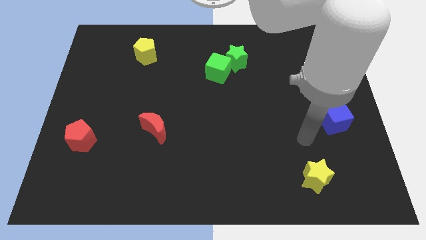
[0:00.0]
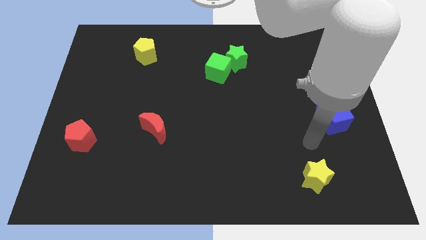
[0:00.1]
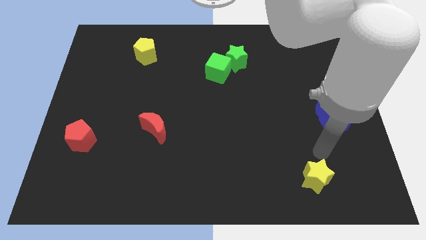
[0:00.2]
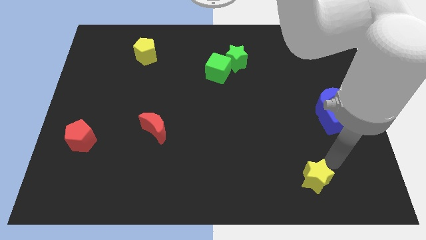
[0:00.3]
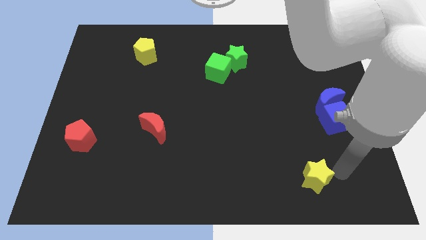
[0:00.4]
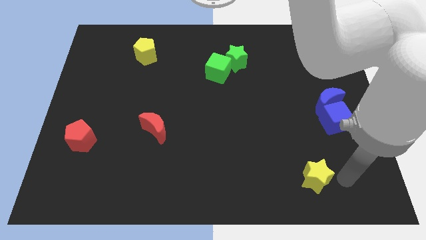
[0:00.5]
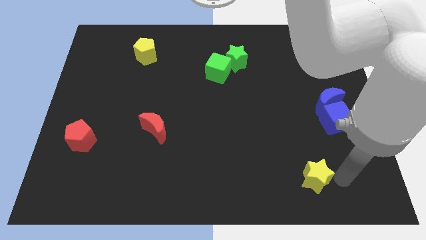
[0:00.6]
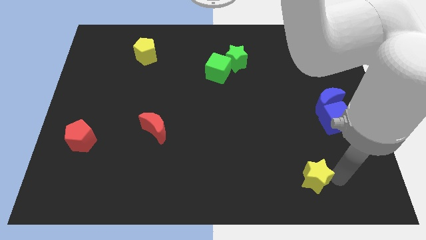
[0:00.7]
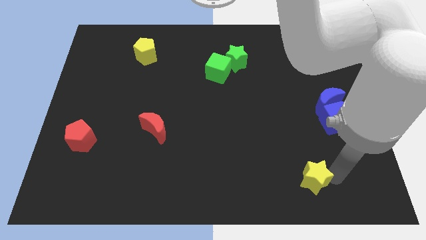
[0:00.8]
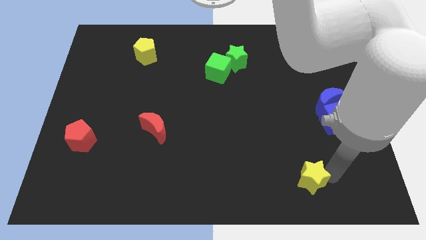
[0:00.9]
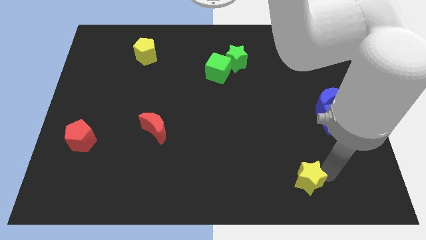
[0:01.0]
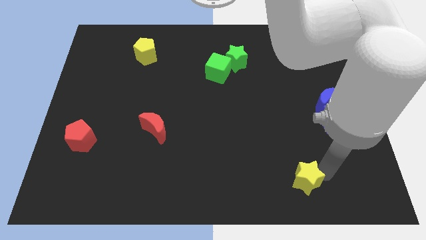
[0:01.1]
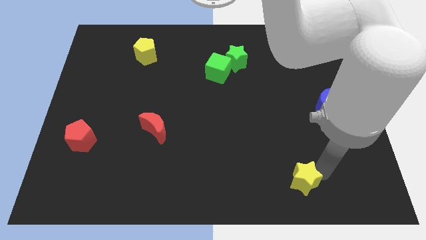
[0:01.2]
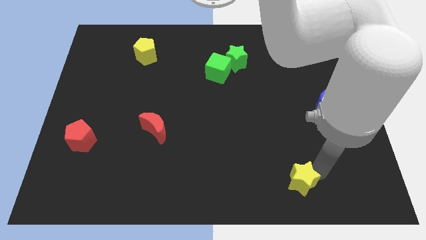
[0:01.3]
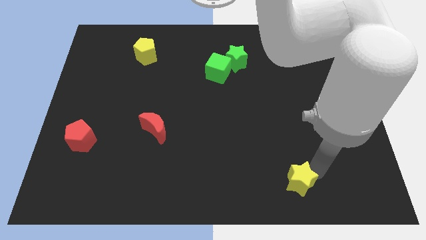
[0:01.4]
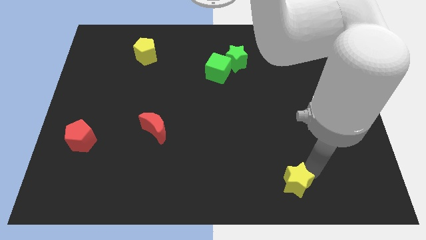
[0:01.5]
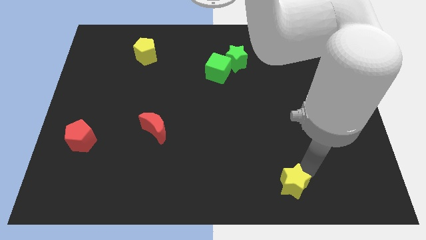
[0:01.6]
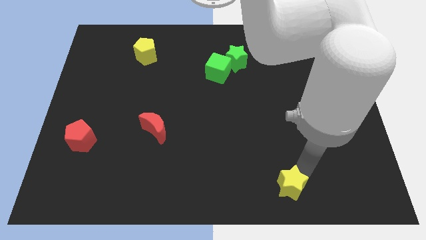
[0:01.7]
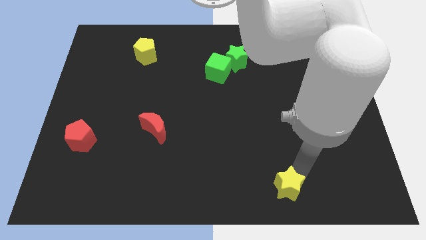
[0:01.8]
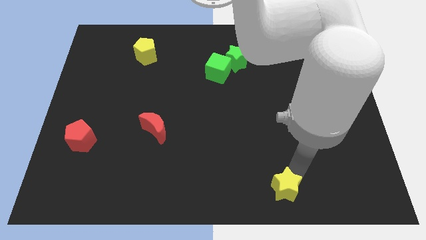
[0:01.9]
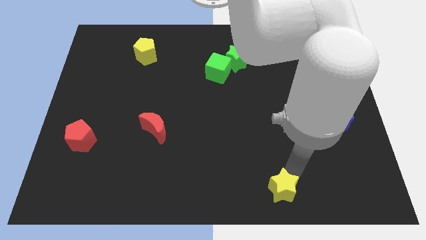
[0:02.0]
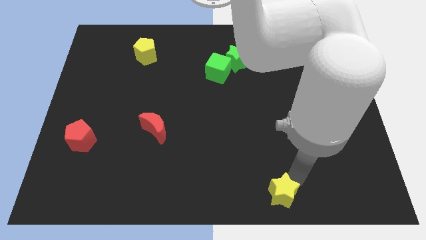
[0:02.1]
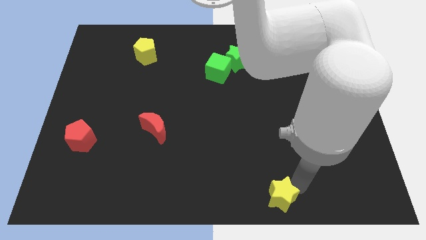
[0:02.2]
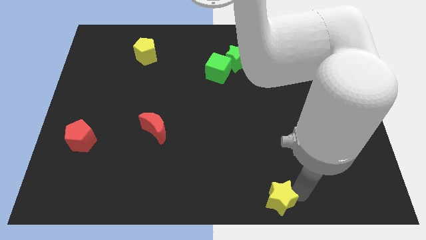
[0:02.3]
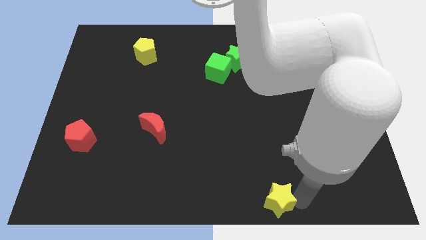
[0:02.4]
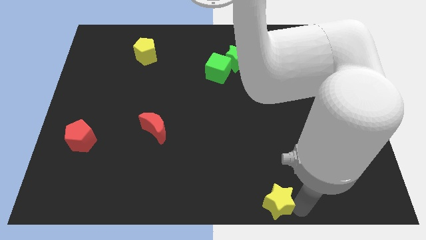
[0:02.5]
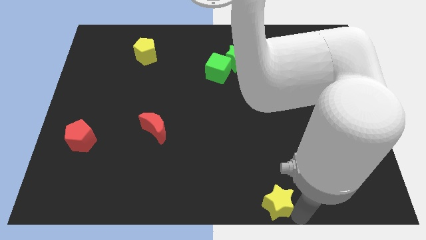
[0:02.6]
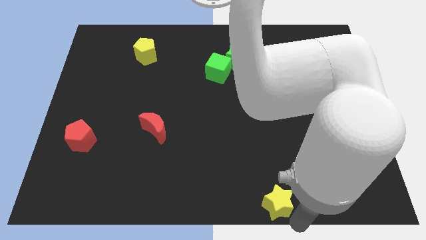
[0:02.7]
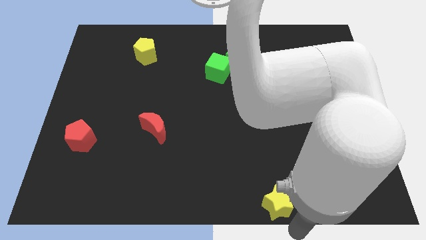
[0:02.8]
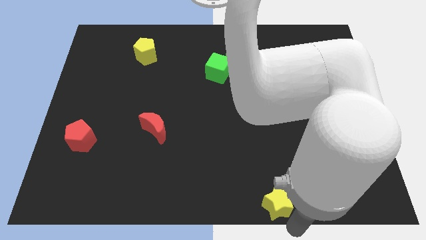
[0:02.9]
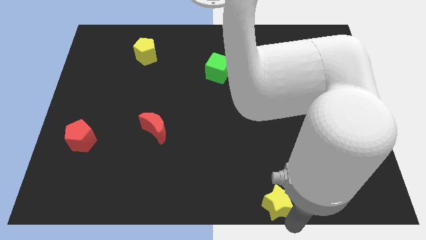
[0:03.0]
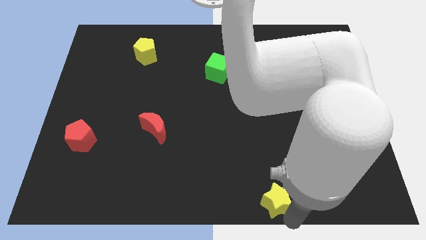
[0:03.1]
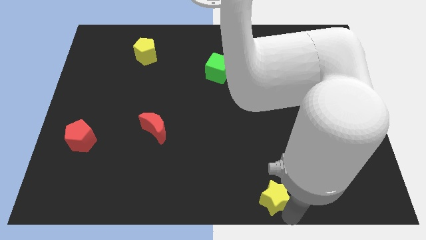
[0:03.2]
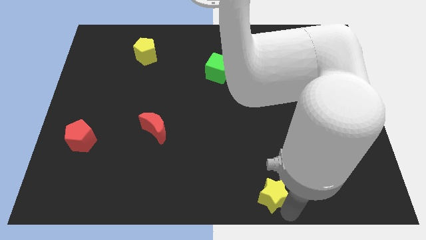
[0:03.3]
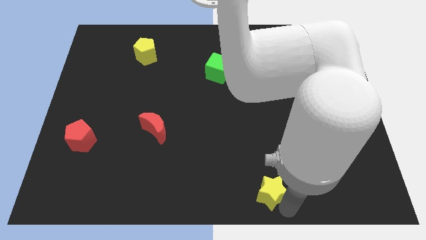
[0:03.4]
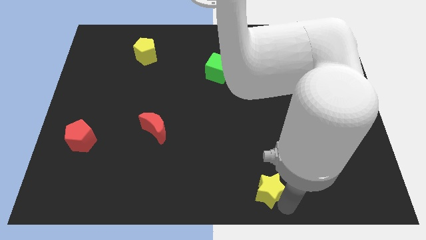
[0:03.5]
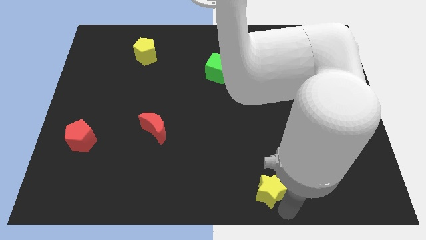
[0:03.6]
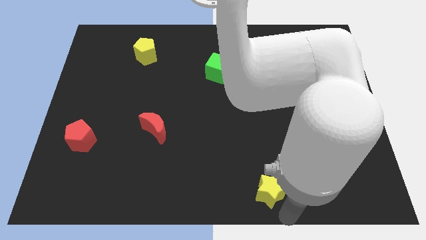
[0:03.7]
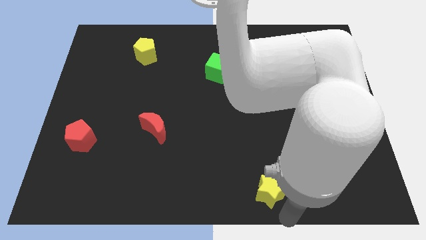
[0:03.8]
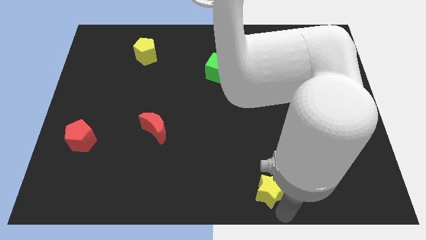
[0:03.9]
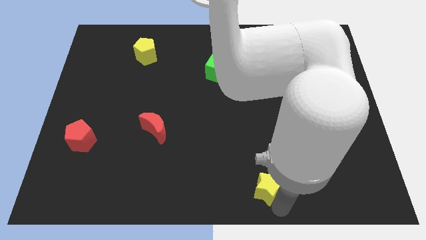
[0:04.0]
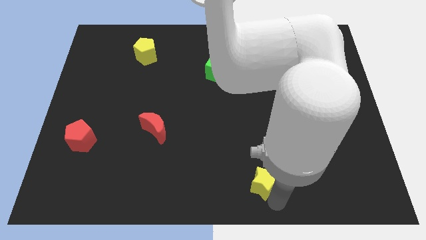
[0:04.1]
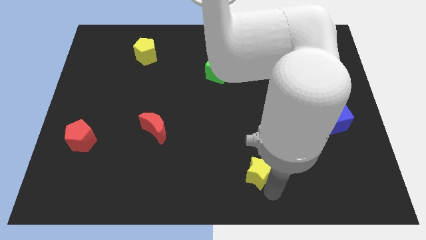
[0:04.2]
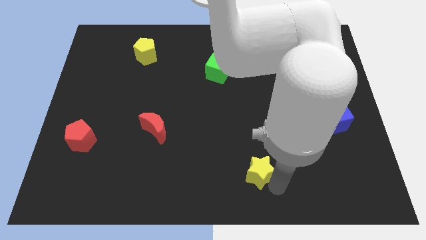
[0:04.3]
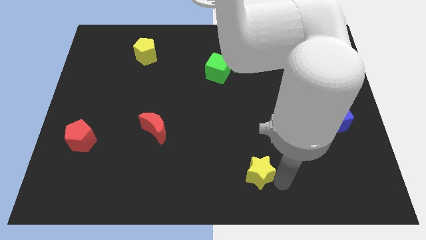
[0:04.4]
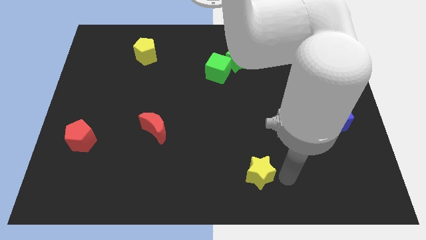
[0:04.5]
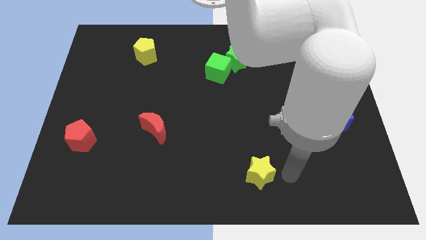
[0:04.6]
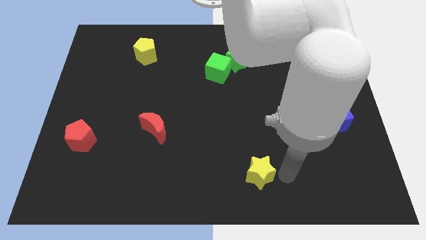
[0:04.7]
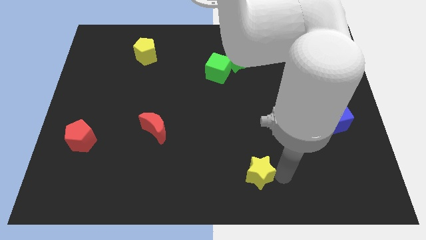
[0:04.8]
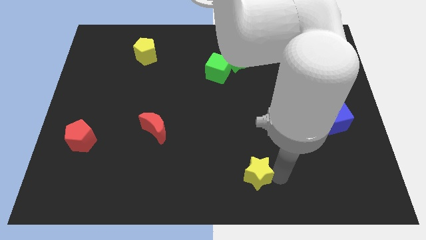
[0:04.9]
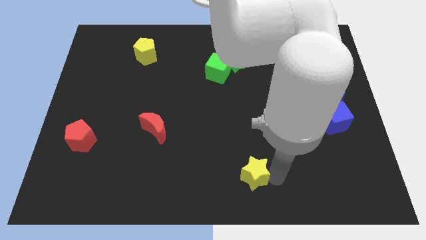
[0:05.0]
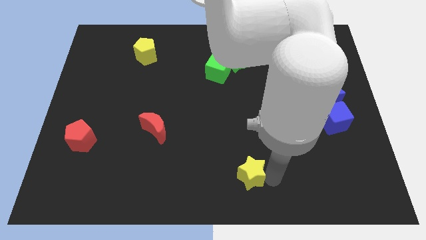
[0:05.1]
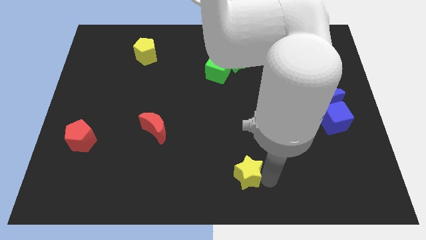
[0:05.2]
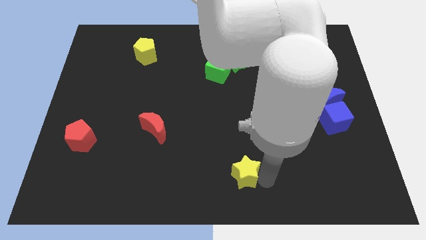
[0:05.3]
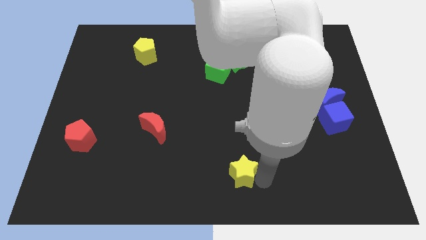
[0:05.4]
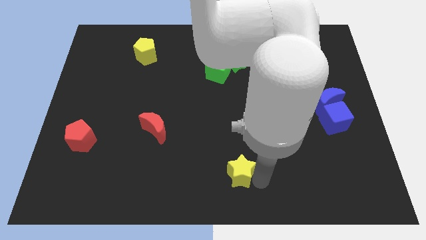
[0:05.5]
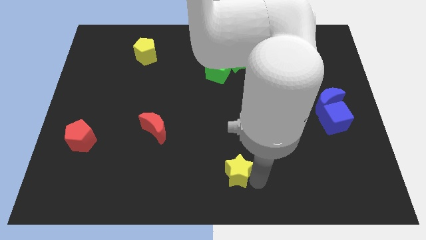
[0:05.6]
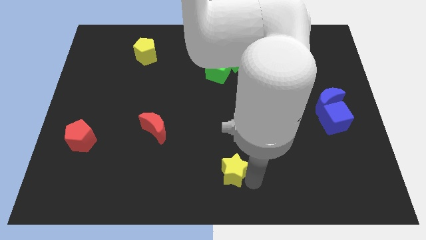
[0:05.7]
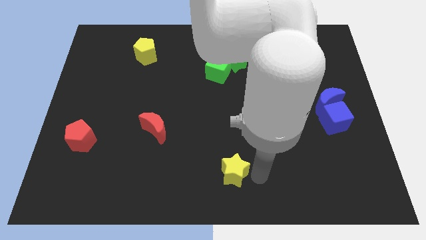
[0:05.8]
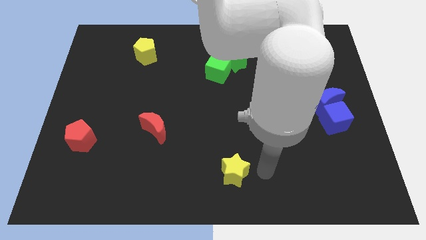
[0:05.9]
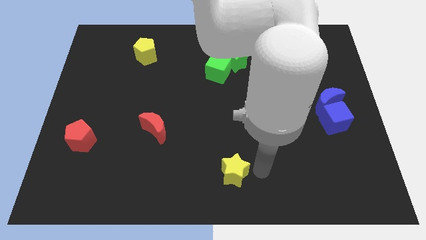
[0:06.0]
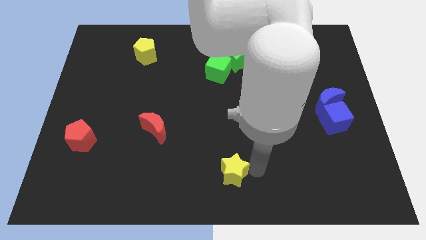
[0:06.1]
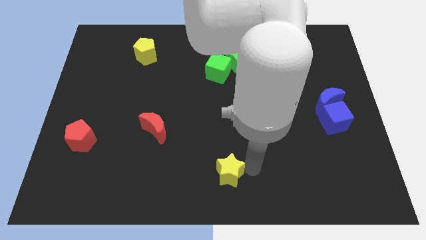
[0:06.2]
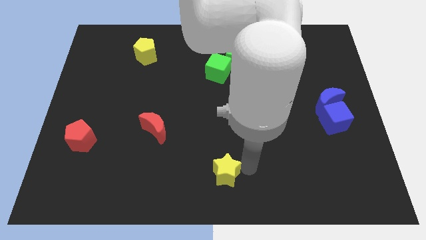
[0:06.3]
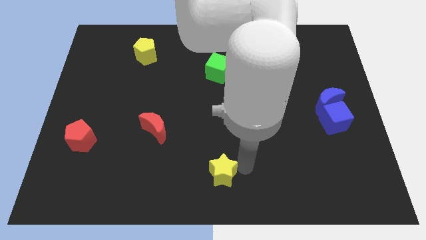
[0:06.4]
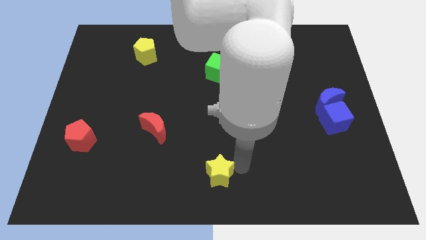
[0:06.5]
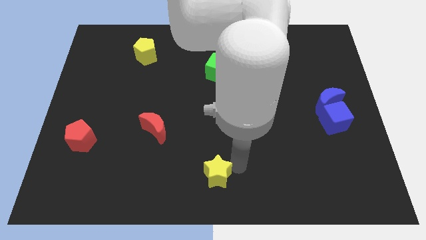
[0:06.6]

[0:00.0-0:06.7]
move the yellow star left

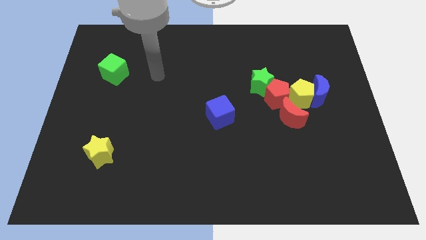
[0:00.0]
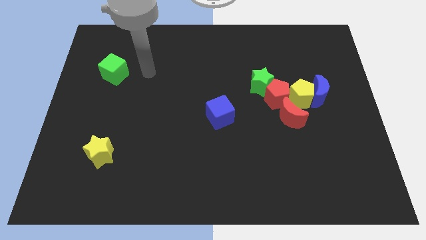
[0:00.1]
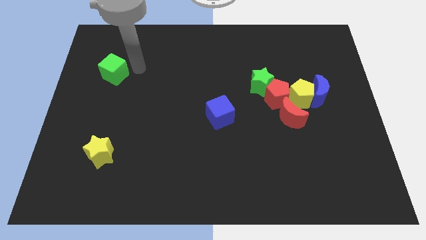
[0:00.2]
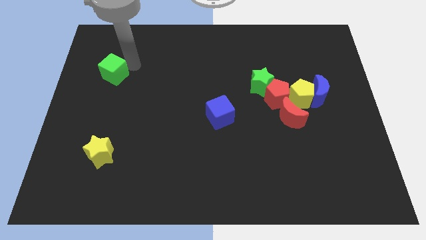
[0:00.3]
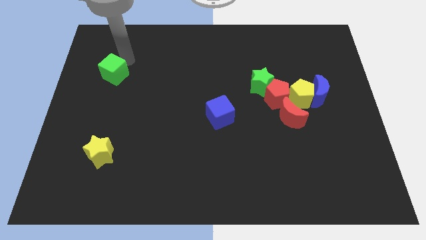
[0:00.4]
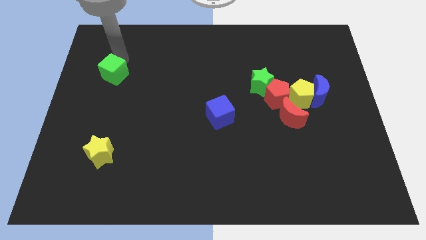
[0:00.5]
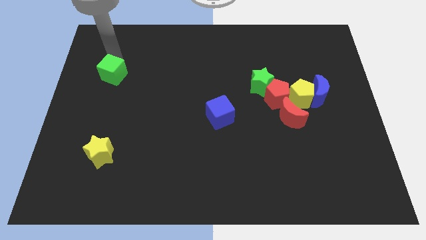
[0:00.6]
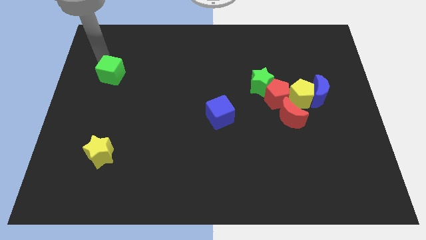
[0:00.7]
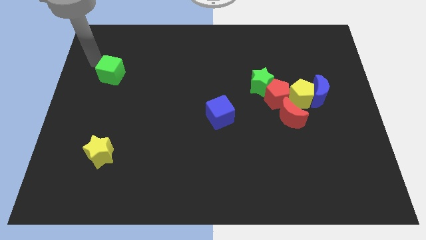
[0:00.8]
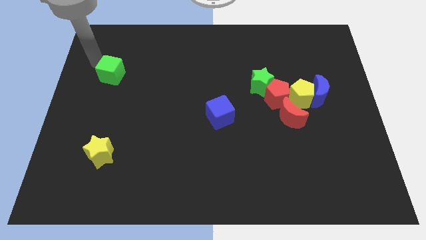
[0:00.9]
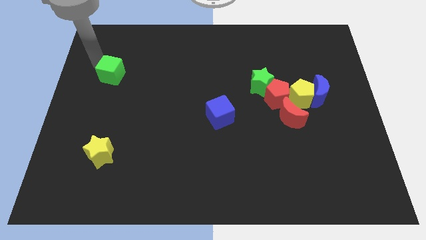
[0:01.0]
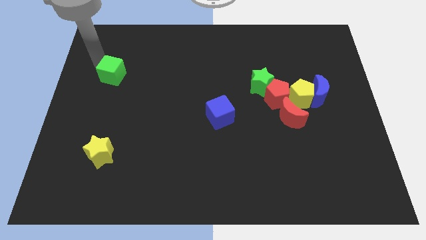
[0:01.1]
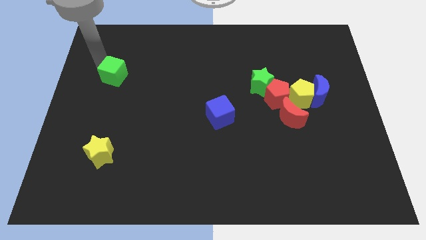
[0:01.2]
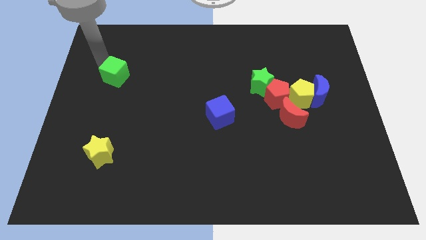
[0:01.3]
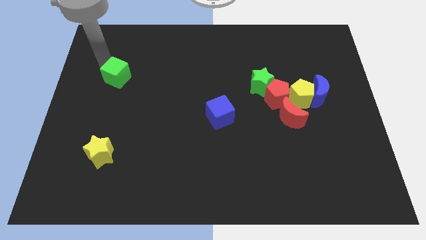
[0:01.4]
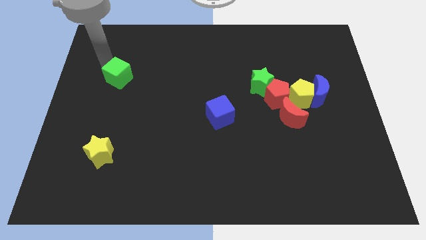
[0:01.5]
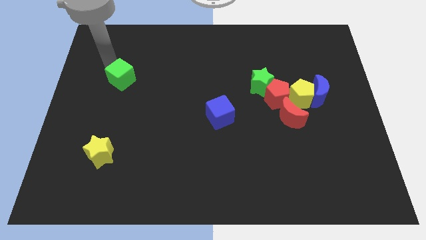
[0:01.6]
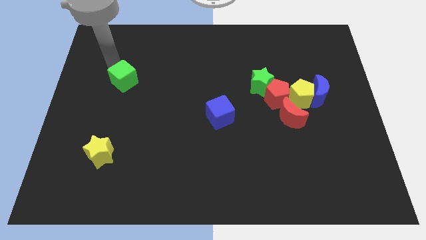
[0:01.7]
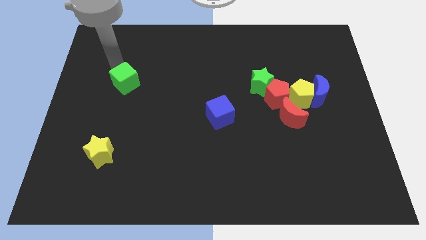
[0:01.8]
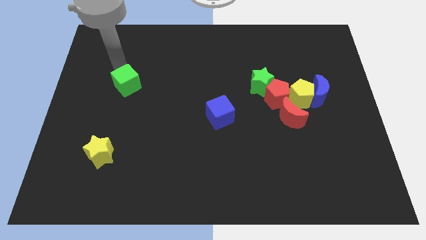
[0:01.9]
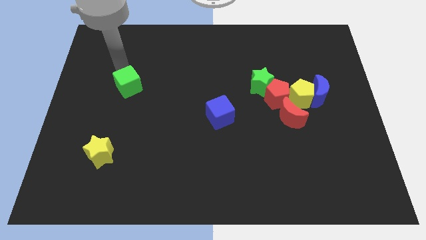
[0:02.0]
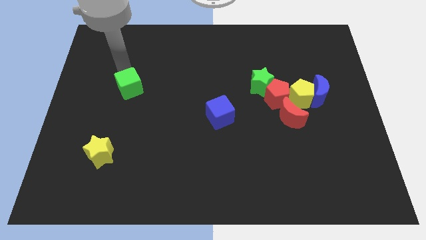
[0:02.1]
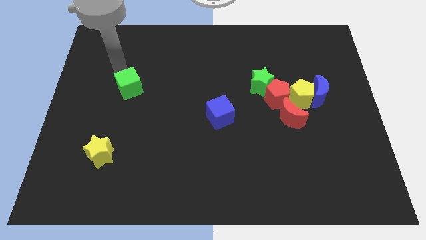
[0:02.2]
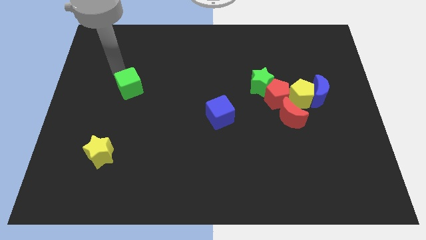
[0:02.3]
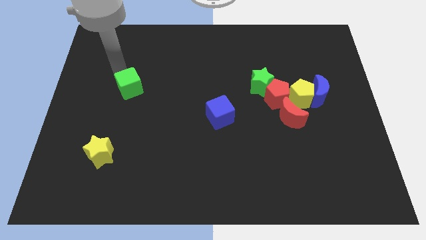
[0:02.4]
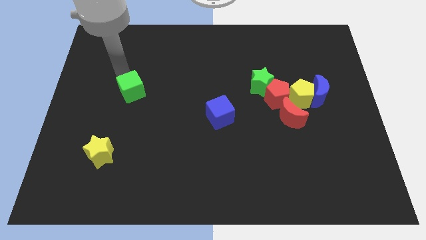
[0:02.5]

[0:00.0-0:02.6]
move the green cube a bit downwards and to the right diagonally
